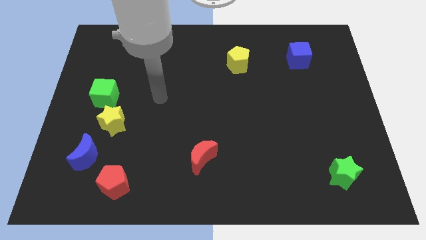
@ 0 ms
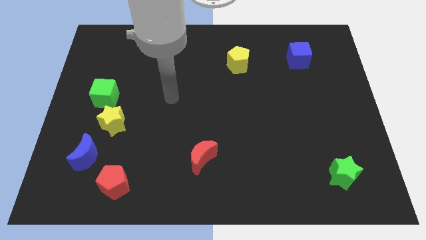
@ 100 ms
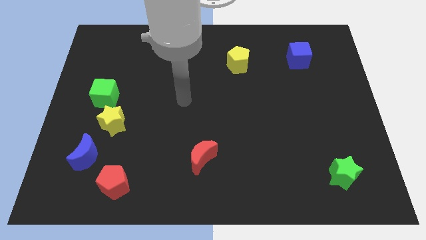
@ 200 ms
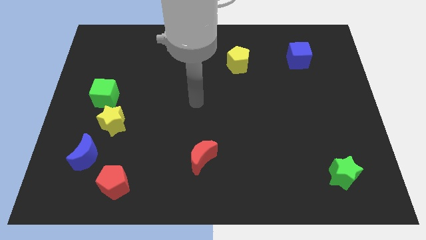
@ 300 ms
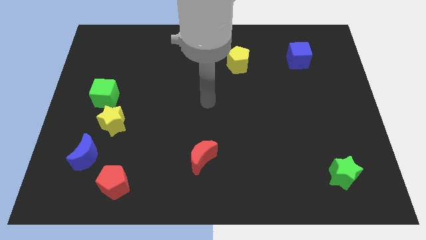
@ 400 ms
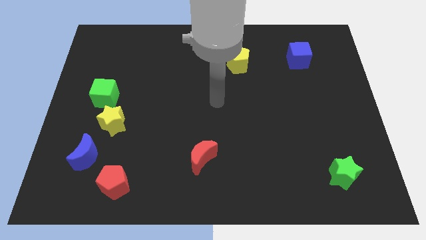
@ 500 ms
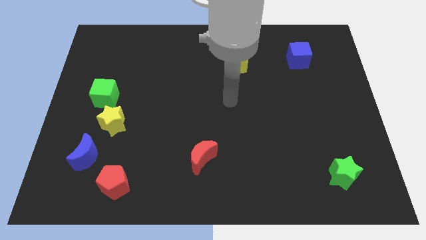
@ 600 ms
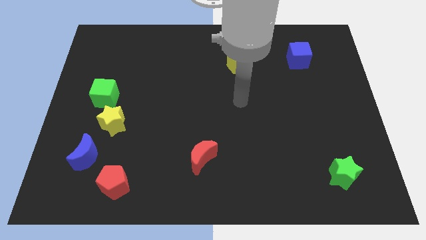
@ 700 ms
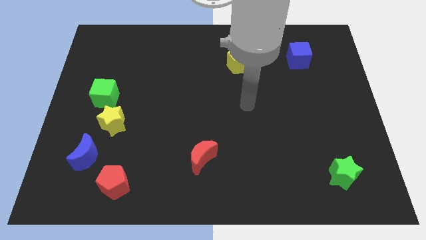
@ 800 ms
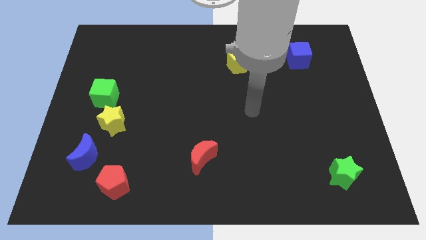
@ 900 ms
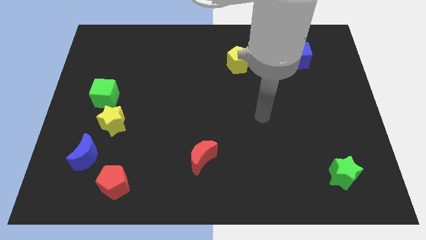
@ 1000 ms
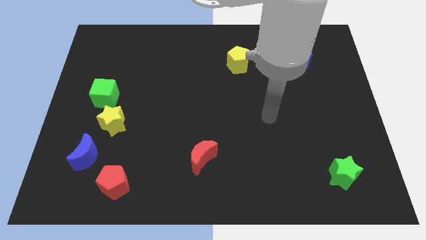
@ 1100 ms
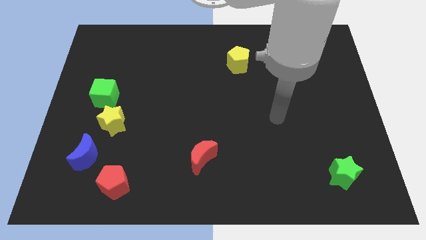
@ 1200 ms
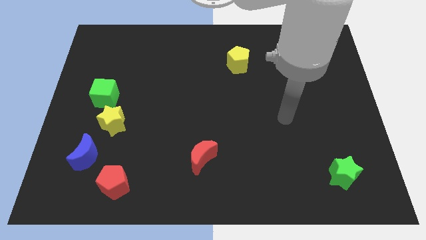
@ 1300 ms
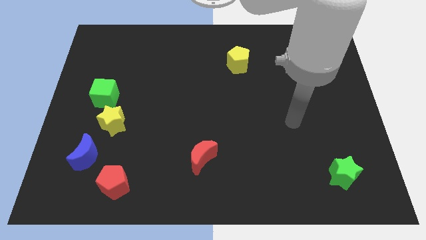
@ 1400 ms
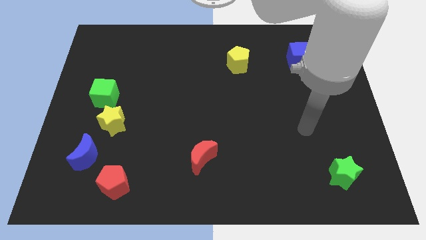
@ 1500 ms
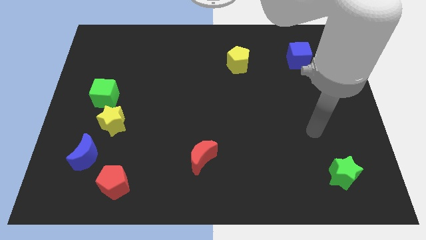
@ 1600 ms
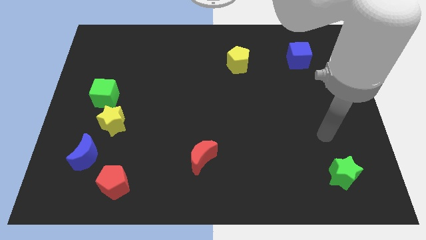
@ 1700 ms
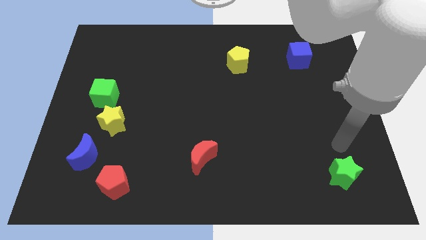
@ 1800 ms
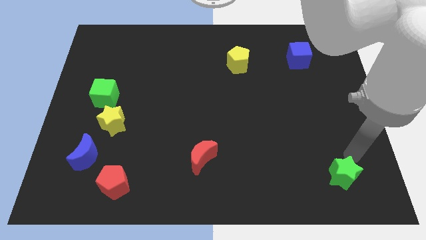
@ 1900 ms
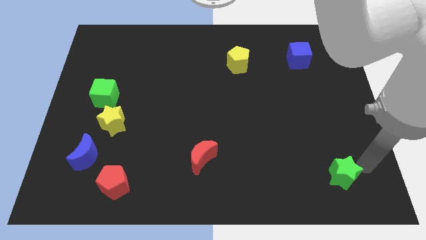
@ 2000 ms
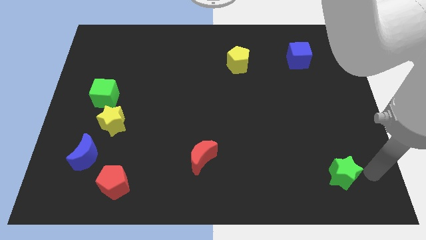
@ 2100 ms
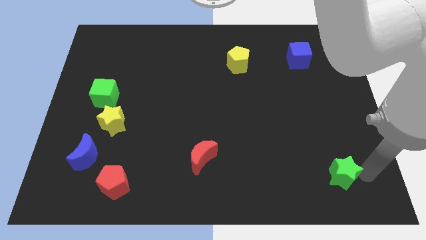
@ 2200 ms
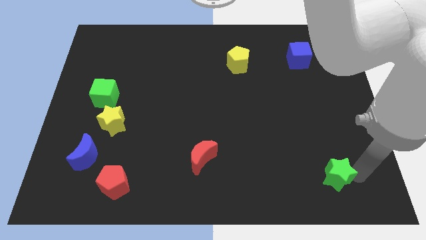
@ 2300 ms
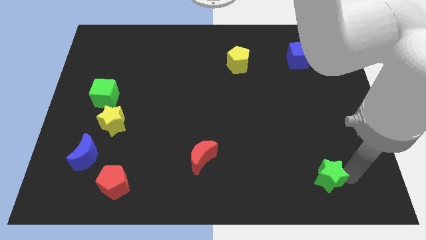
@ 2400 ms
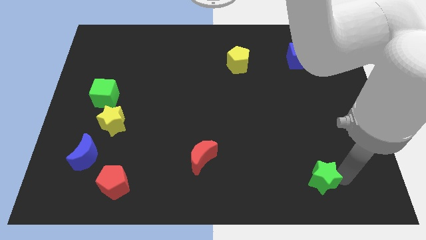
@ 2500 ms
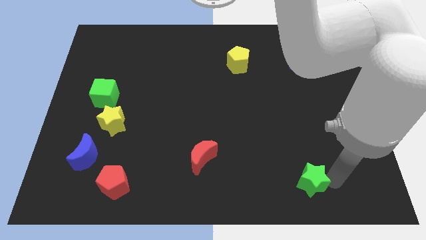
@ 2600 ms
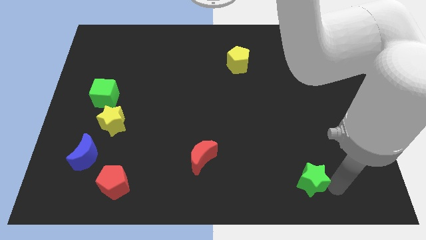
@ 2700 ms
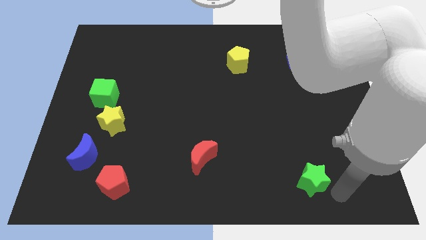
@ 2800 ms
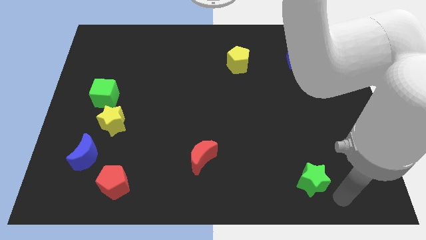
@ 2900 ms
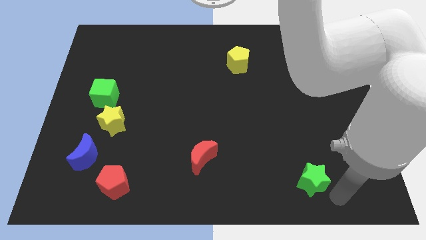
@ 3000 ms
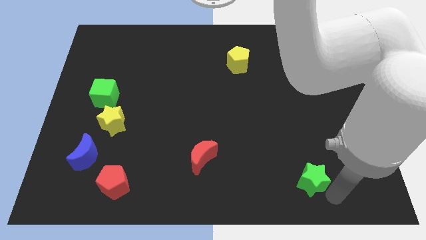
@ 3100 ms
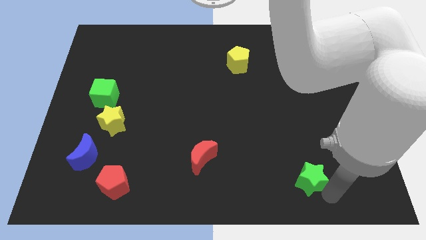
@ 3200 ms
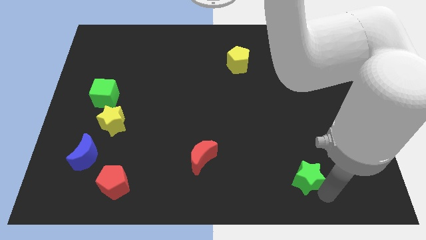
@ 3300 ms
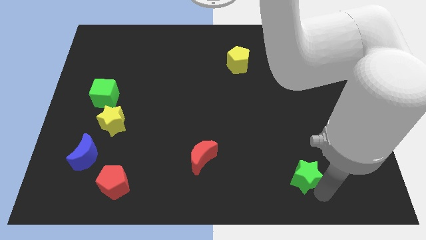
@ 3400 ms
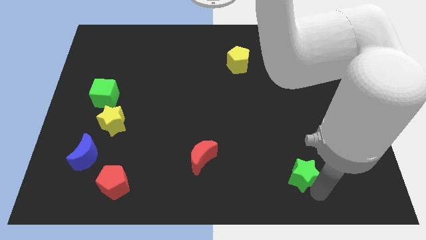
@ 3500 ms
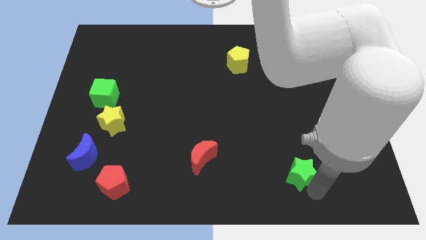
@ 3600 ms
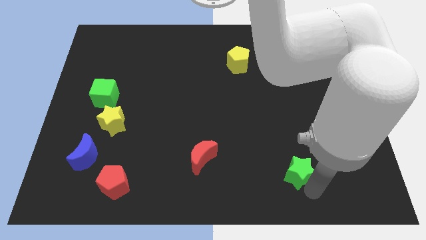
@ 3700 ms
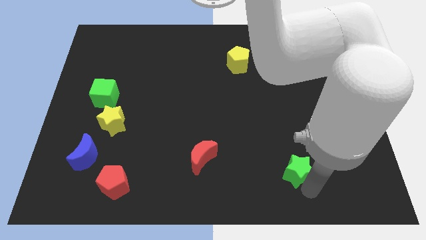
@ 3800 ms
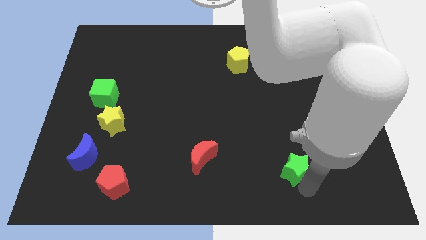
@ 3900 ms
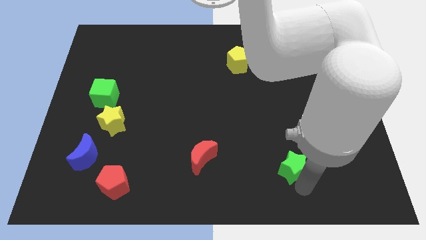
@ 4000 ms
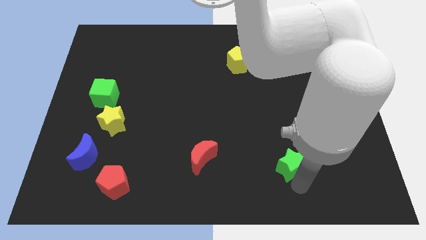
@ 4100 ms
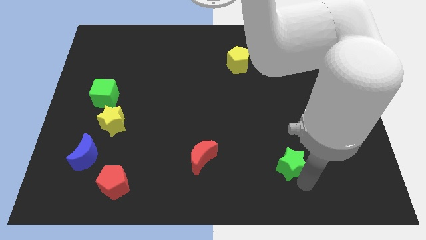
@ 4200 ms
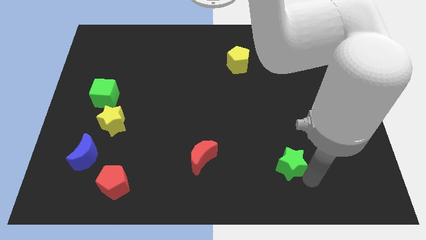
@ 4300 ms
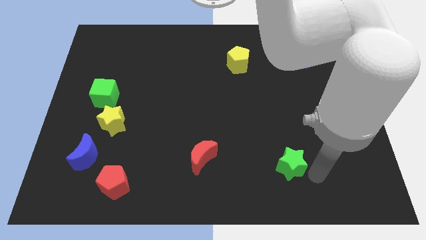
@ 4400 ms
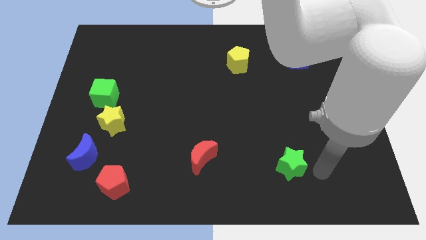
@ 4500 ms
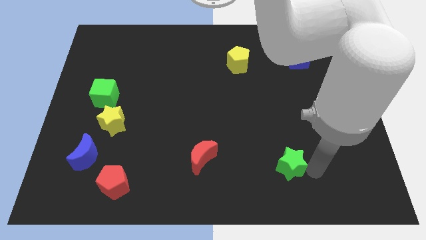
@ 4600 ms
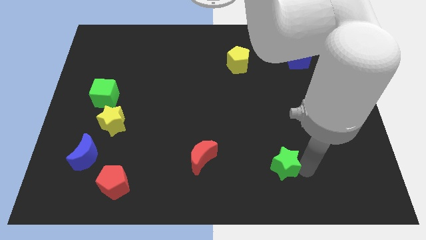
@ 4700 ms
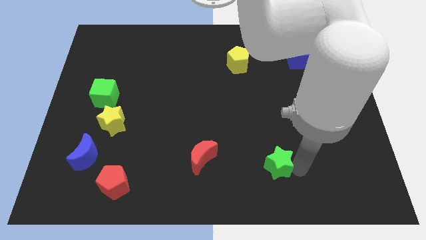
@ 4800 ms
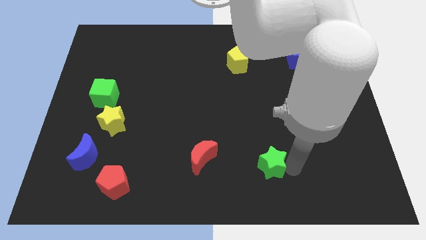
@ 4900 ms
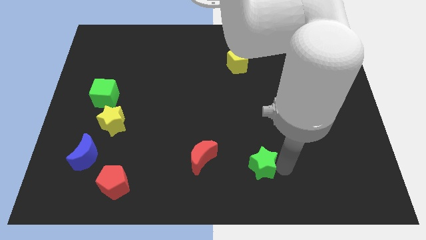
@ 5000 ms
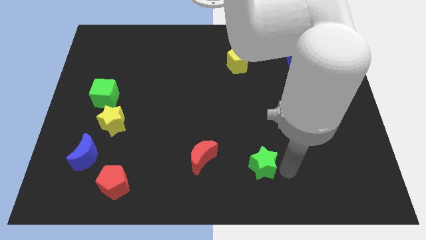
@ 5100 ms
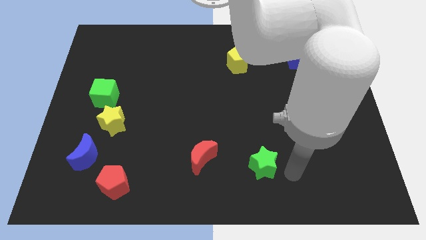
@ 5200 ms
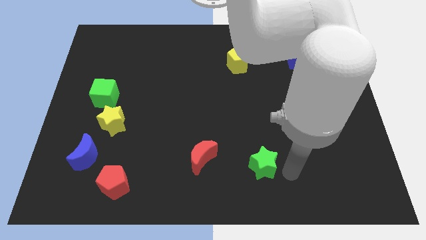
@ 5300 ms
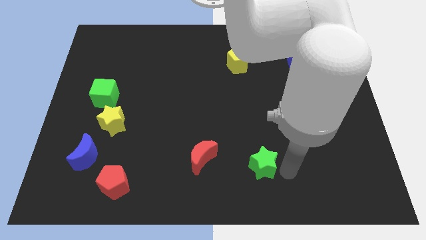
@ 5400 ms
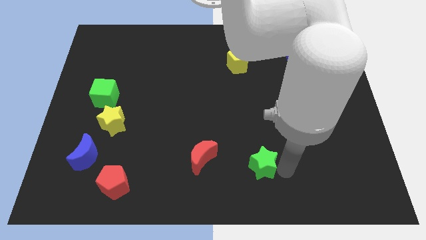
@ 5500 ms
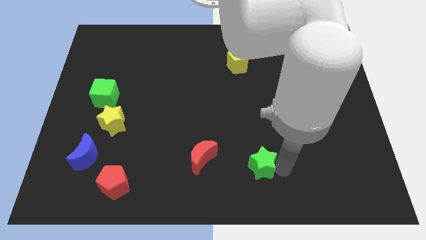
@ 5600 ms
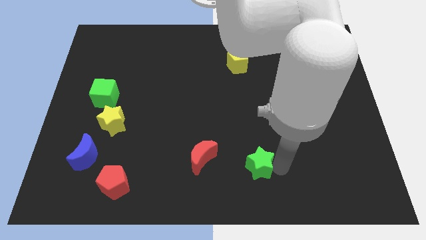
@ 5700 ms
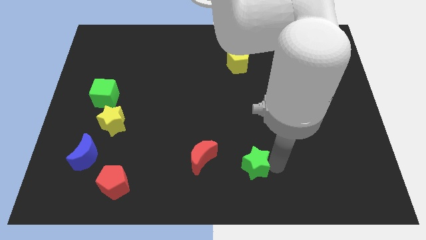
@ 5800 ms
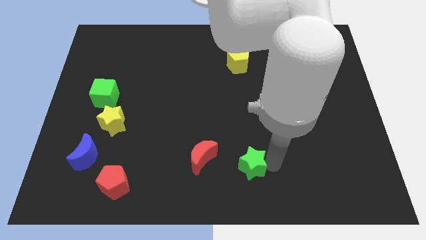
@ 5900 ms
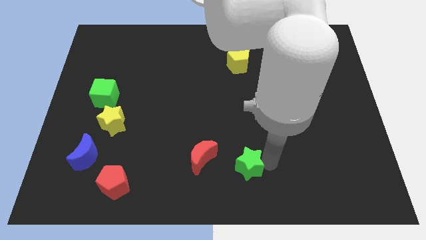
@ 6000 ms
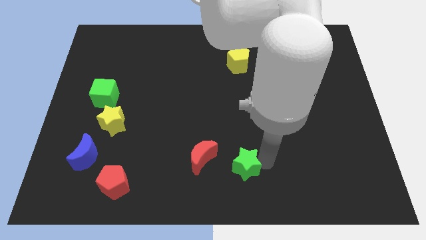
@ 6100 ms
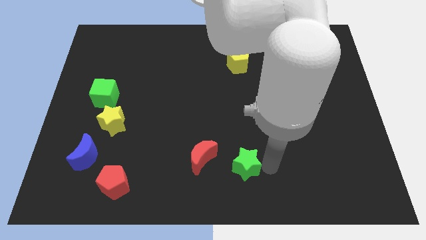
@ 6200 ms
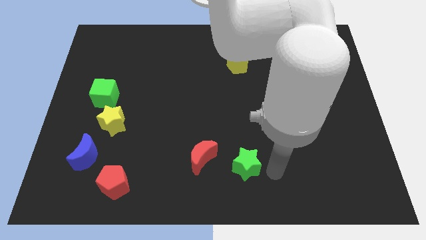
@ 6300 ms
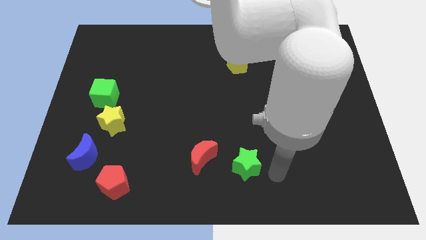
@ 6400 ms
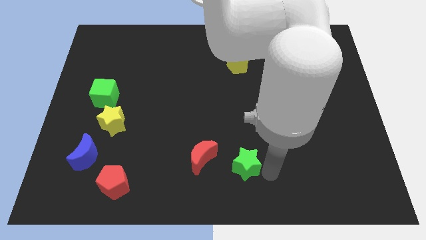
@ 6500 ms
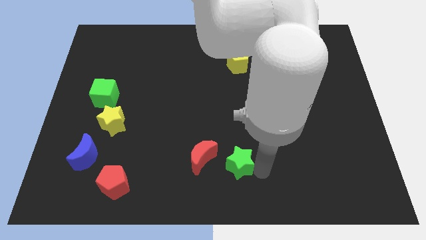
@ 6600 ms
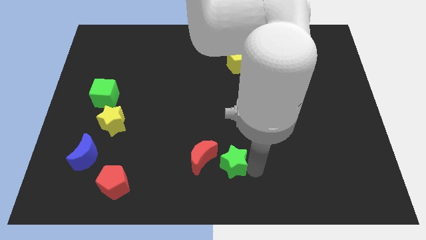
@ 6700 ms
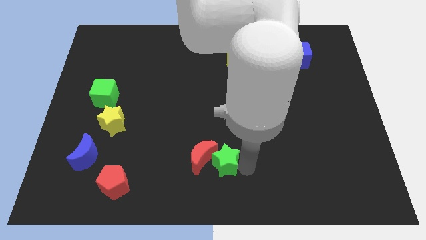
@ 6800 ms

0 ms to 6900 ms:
slide the green star to the red moon
